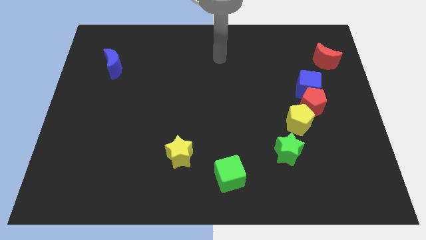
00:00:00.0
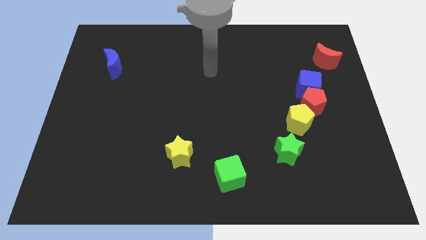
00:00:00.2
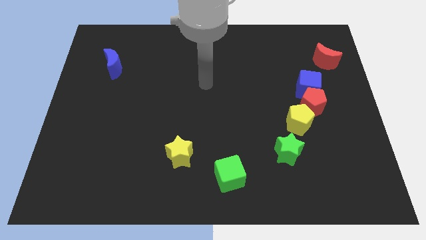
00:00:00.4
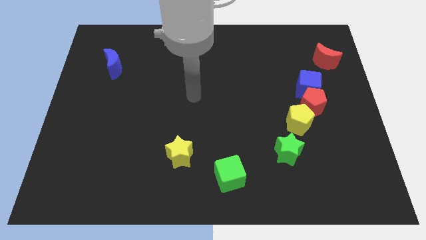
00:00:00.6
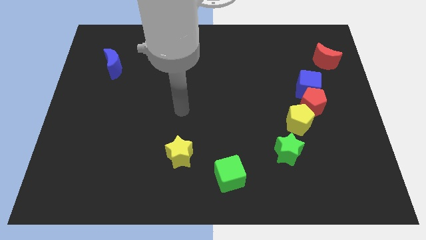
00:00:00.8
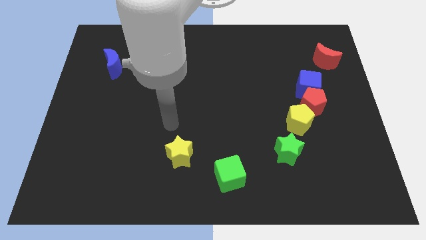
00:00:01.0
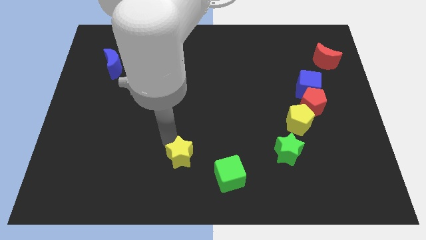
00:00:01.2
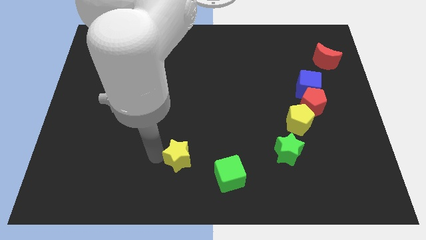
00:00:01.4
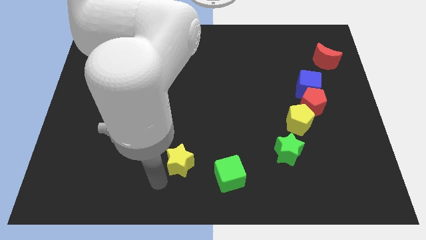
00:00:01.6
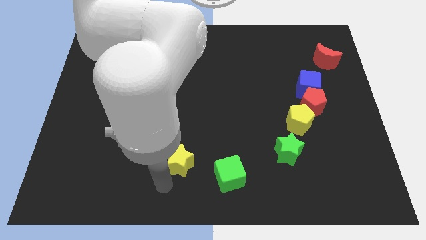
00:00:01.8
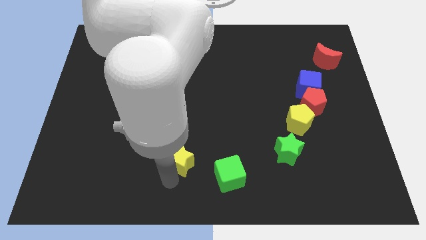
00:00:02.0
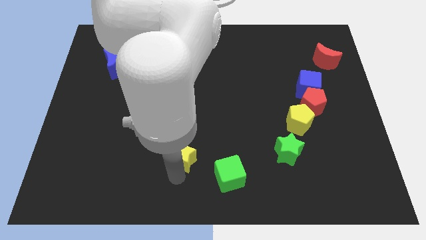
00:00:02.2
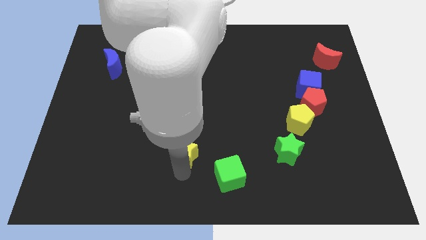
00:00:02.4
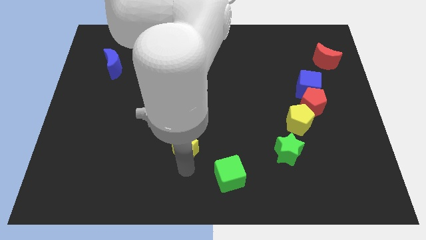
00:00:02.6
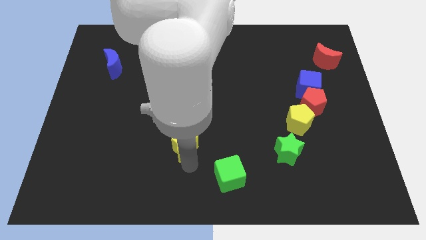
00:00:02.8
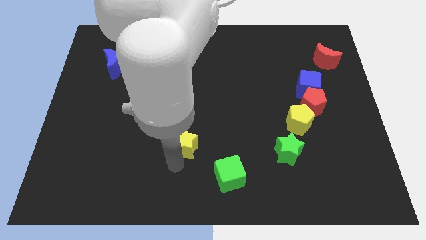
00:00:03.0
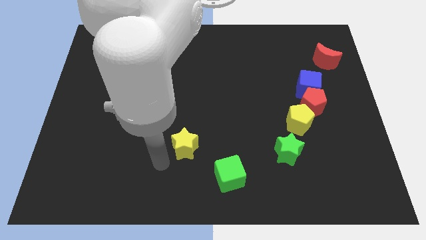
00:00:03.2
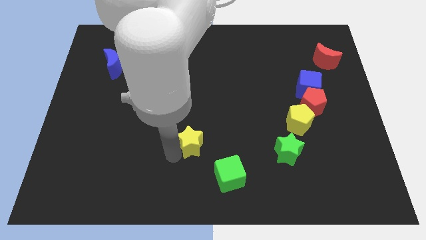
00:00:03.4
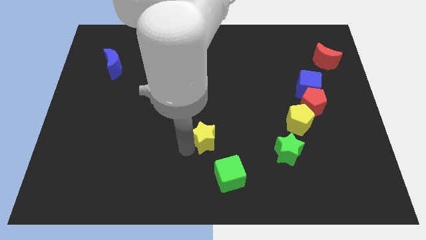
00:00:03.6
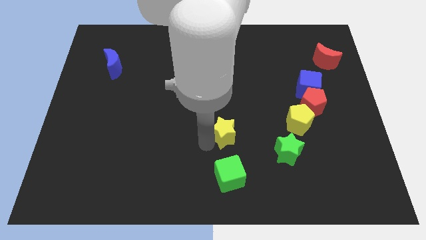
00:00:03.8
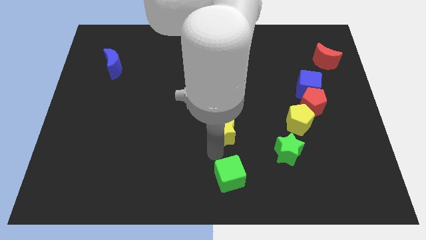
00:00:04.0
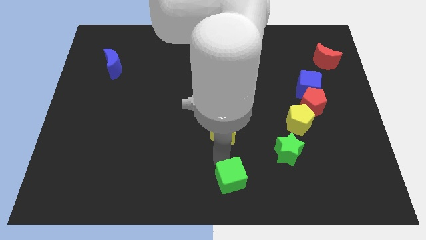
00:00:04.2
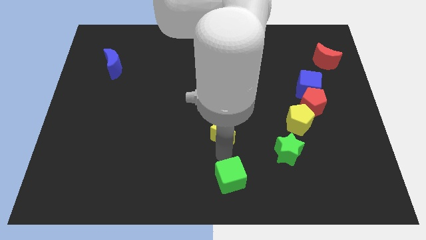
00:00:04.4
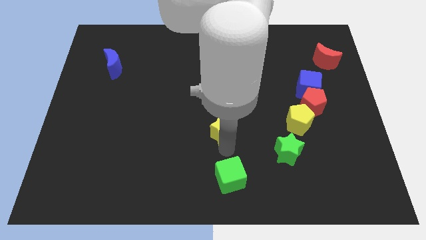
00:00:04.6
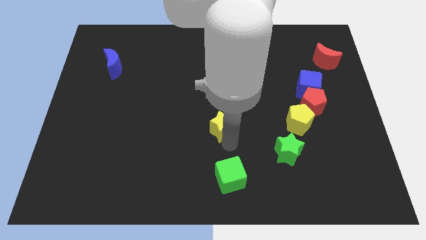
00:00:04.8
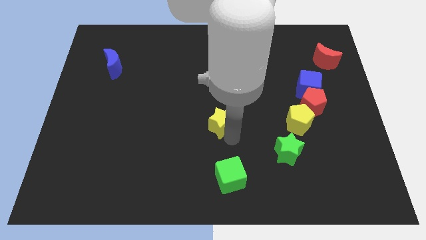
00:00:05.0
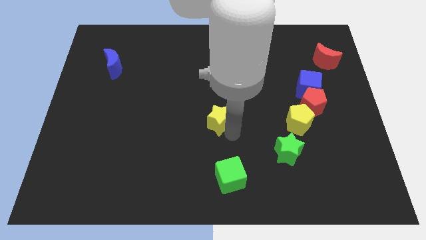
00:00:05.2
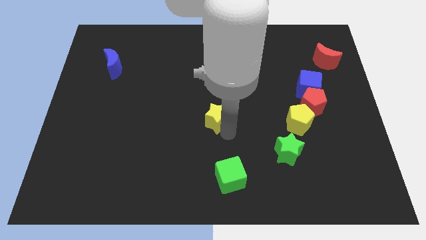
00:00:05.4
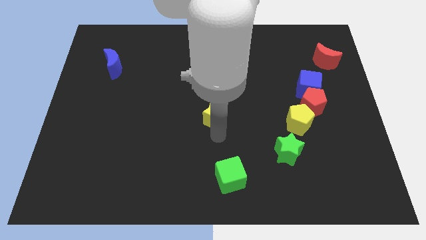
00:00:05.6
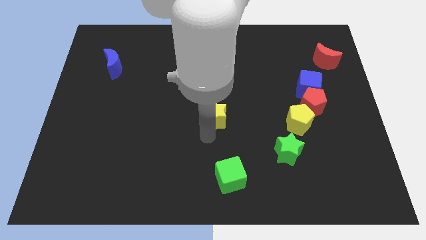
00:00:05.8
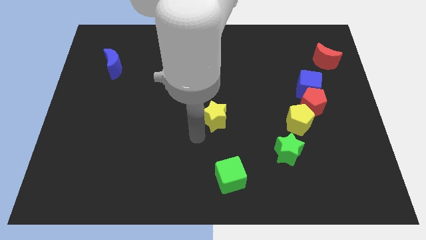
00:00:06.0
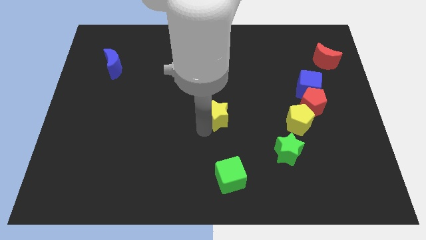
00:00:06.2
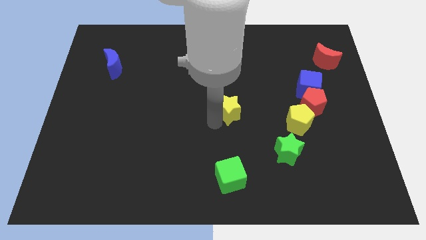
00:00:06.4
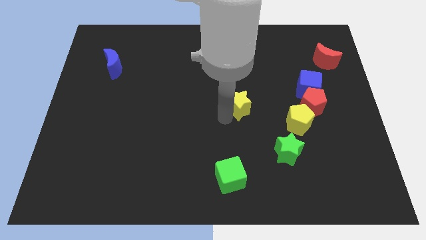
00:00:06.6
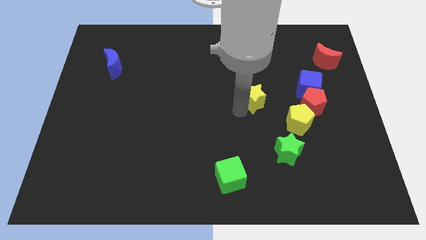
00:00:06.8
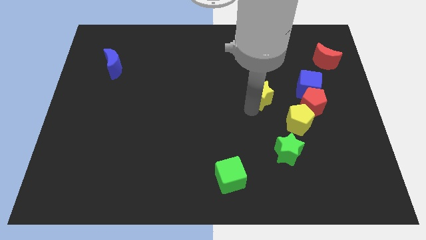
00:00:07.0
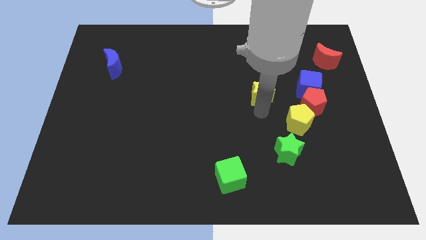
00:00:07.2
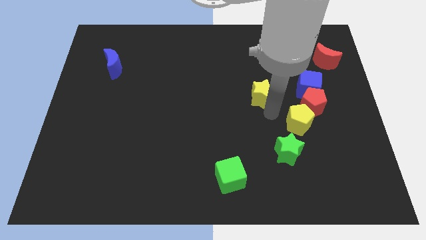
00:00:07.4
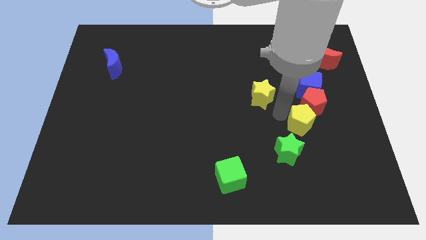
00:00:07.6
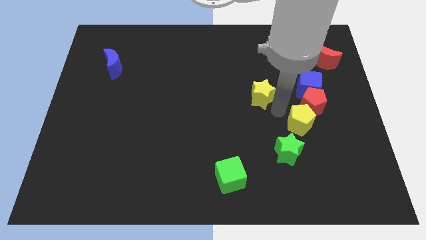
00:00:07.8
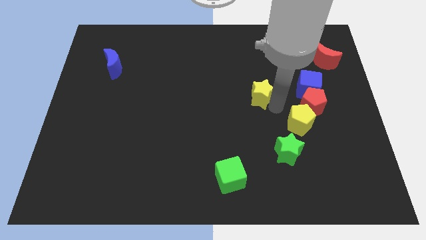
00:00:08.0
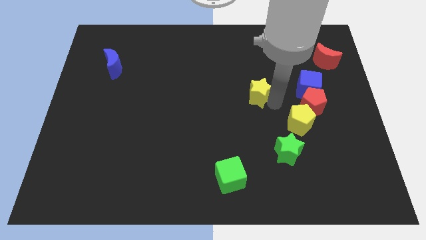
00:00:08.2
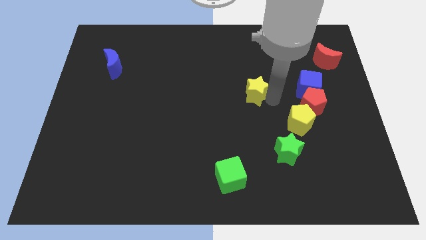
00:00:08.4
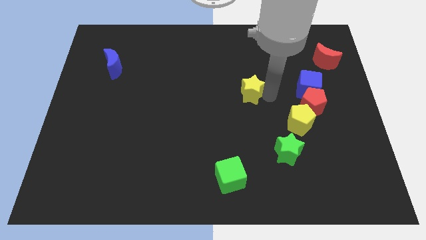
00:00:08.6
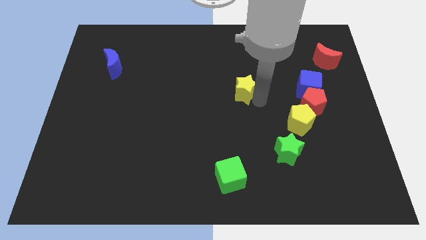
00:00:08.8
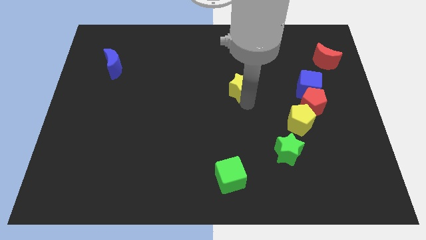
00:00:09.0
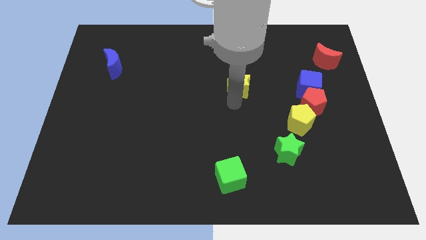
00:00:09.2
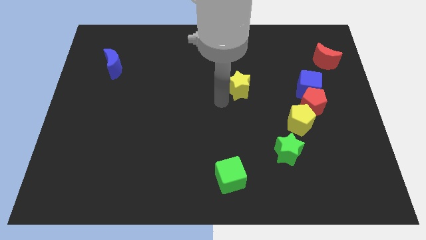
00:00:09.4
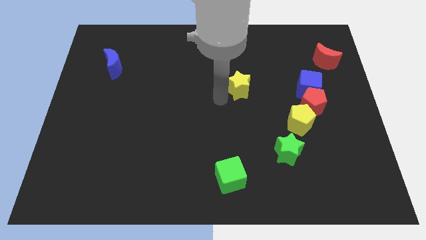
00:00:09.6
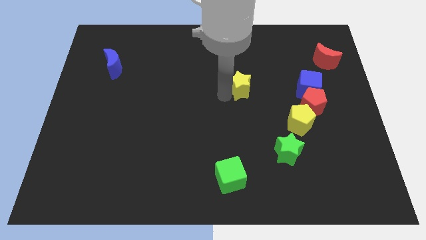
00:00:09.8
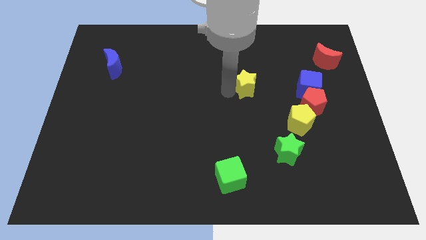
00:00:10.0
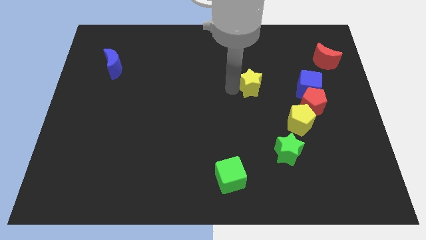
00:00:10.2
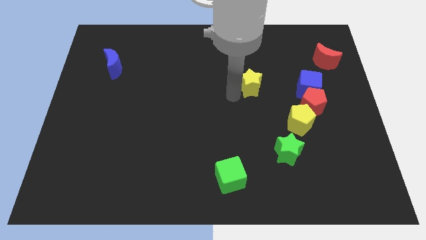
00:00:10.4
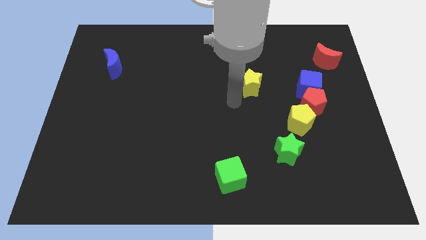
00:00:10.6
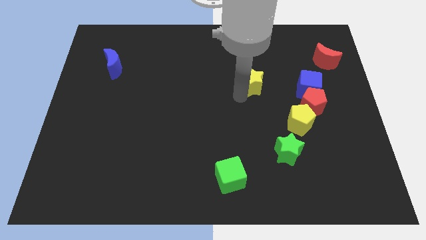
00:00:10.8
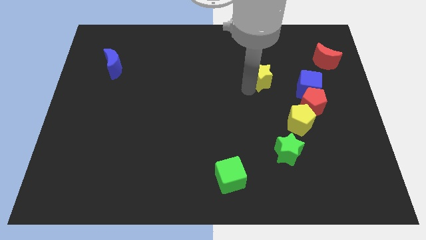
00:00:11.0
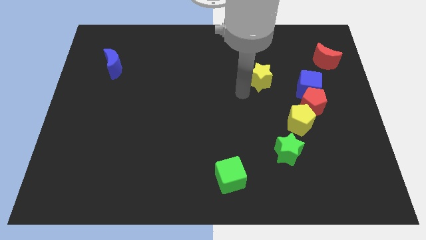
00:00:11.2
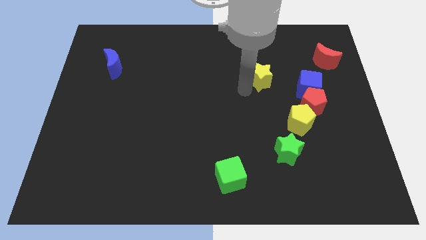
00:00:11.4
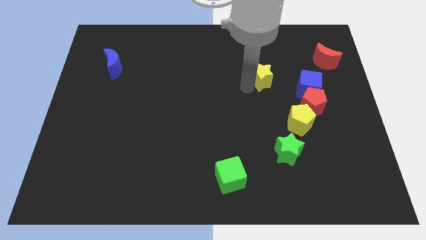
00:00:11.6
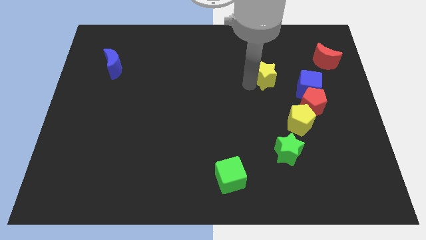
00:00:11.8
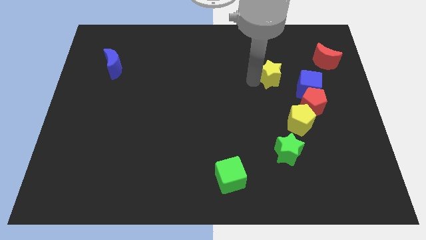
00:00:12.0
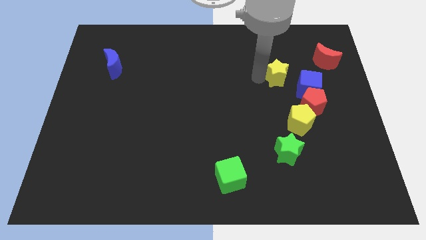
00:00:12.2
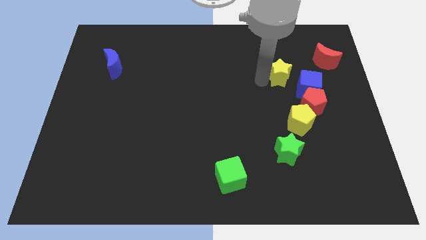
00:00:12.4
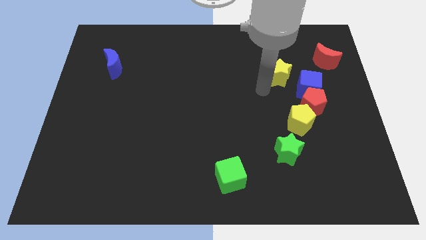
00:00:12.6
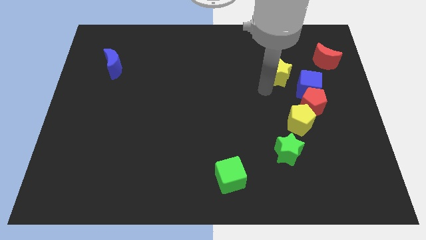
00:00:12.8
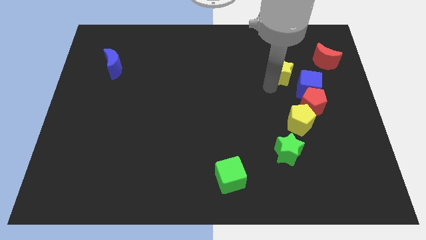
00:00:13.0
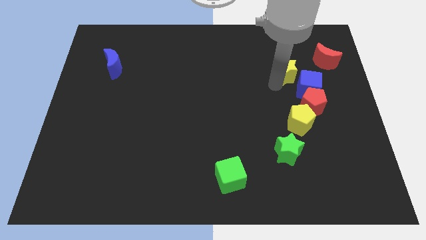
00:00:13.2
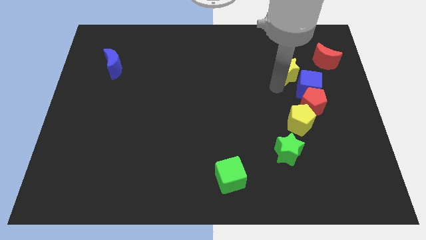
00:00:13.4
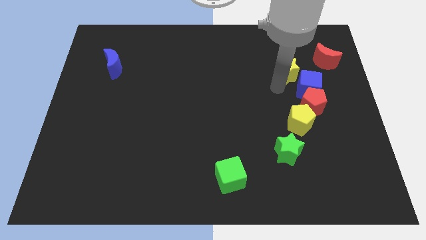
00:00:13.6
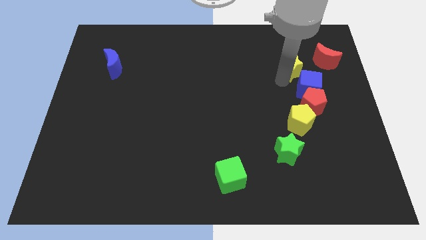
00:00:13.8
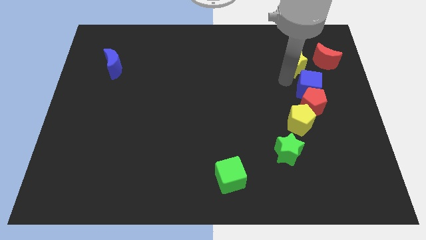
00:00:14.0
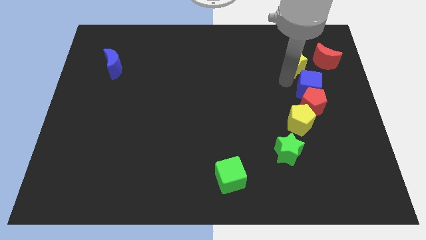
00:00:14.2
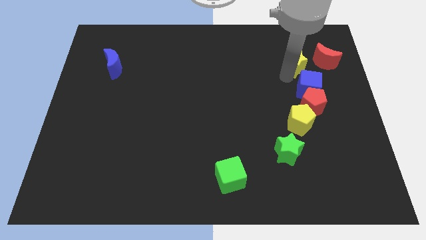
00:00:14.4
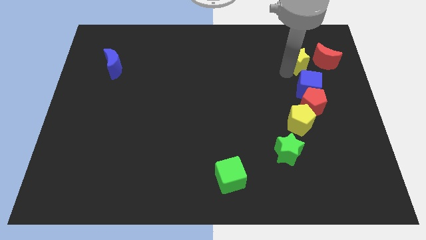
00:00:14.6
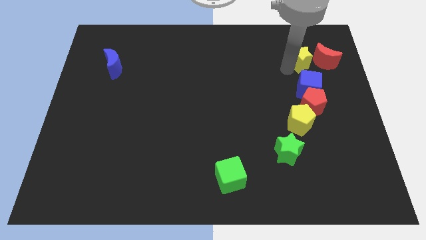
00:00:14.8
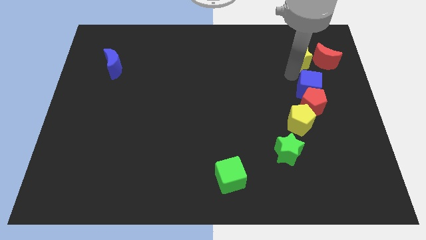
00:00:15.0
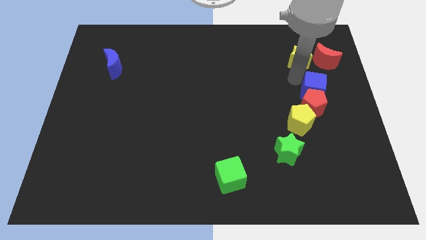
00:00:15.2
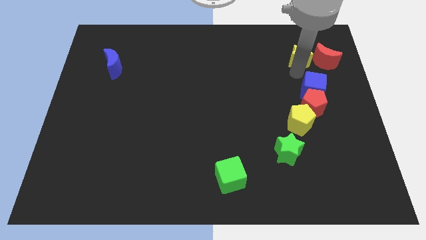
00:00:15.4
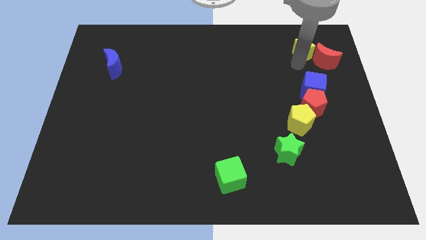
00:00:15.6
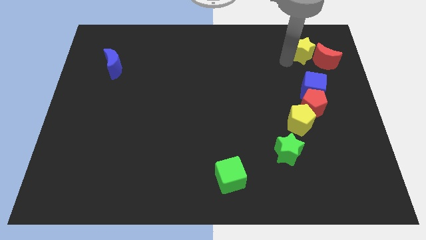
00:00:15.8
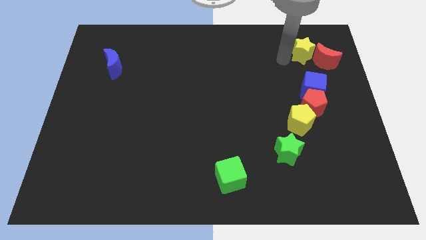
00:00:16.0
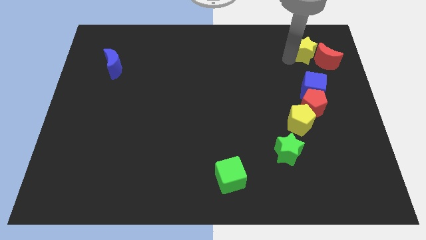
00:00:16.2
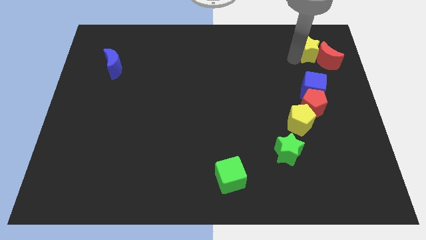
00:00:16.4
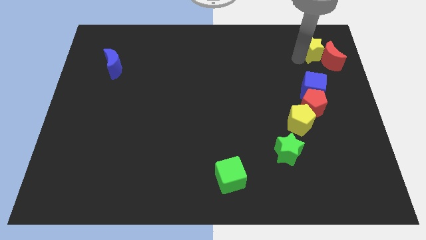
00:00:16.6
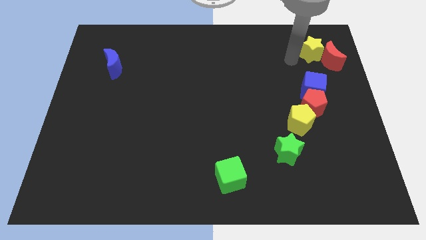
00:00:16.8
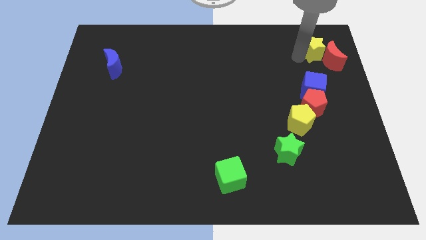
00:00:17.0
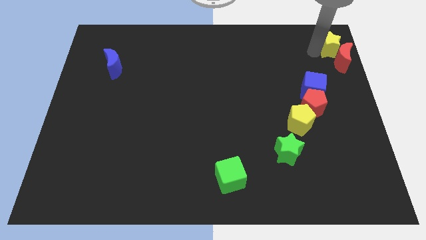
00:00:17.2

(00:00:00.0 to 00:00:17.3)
put the yellow star to the top right corner
